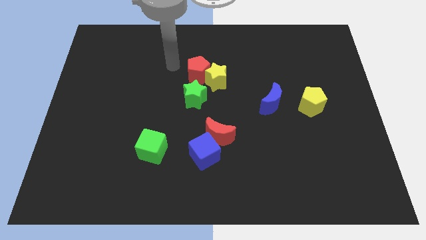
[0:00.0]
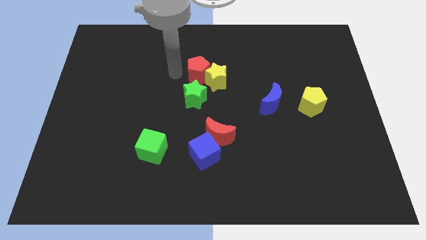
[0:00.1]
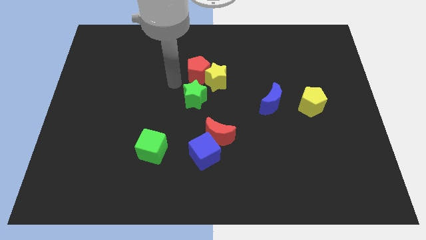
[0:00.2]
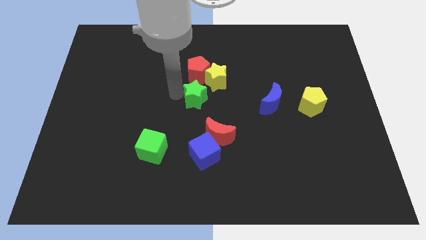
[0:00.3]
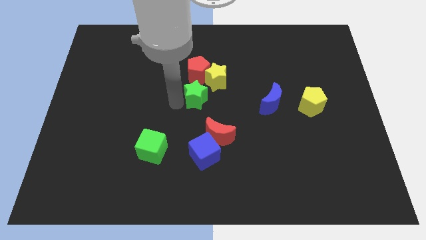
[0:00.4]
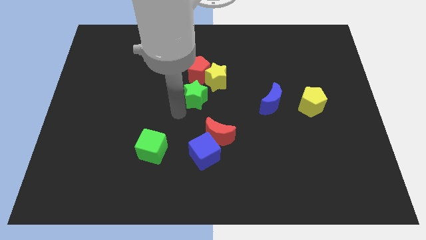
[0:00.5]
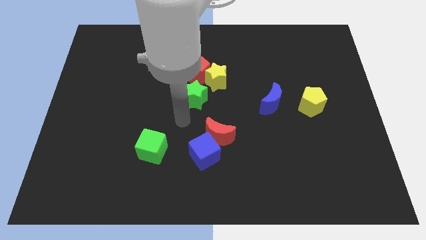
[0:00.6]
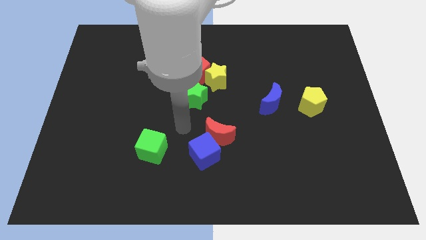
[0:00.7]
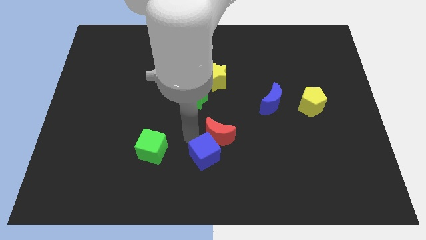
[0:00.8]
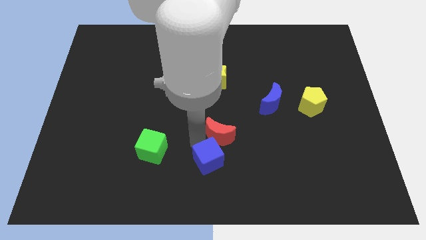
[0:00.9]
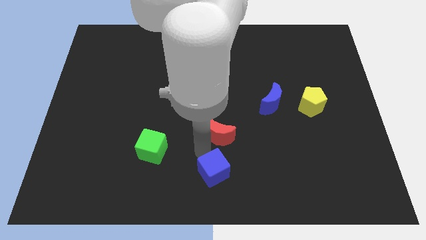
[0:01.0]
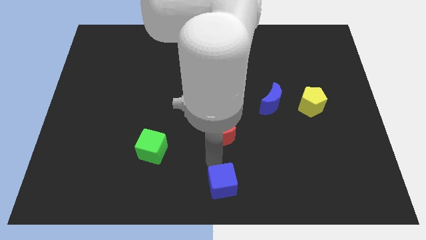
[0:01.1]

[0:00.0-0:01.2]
pull the red moon apart from the blue cube

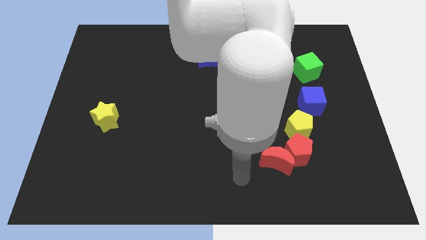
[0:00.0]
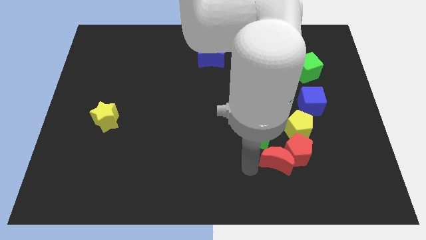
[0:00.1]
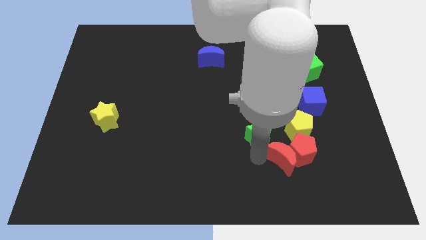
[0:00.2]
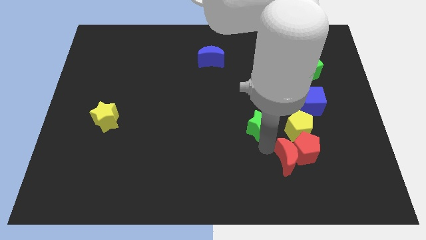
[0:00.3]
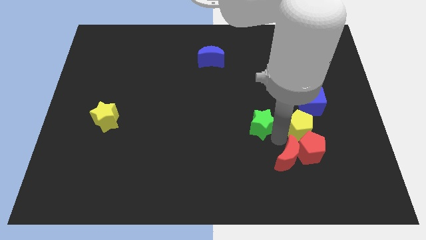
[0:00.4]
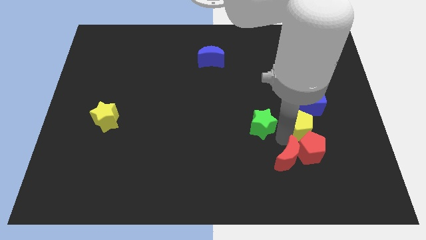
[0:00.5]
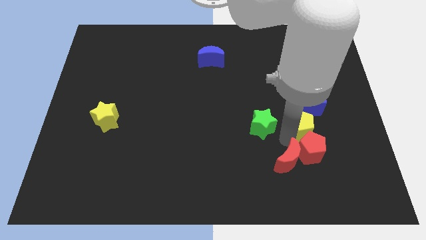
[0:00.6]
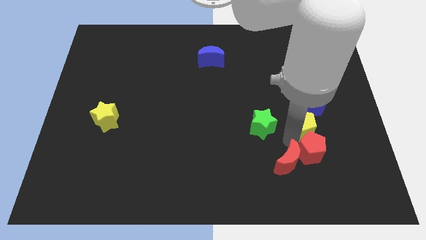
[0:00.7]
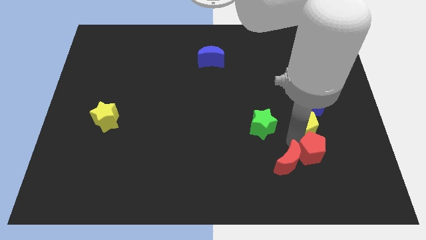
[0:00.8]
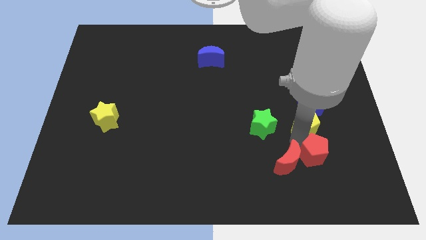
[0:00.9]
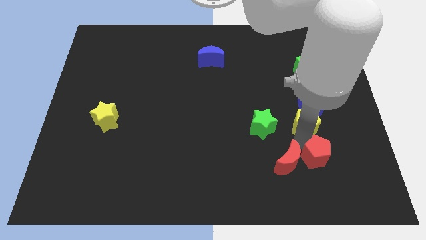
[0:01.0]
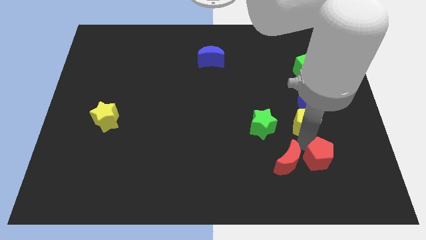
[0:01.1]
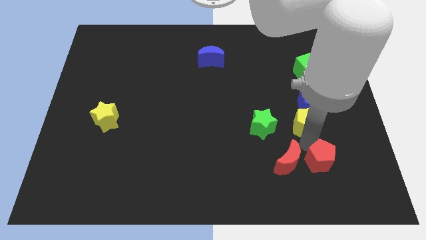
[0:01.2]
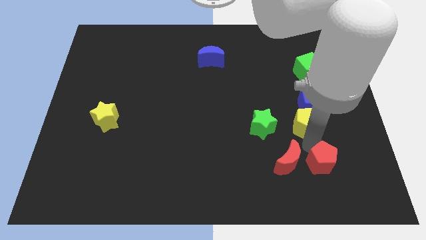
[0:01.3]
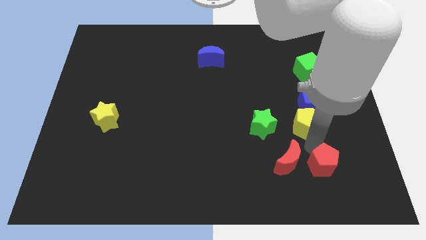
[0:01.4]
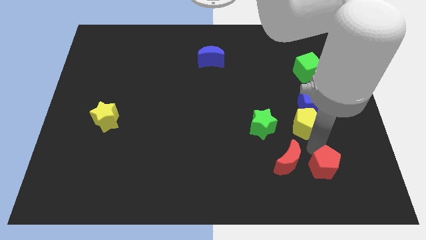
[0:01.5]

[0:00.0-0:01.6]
move the red pentagon away from the red moon, yellow pentagon, and green star

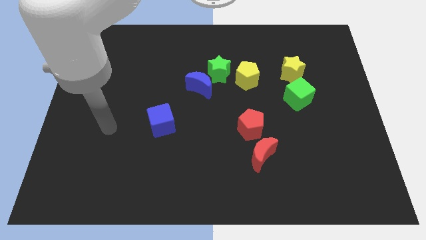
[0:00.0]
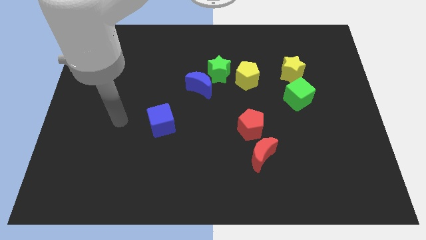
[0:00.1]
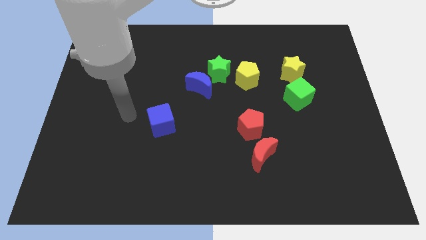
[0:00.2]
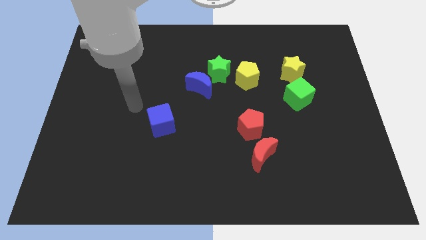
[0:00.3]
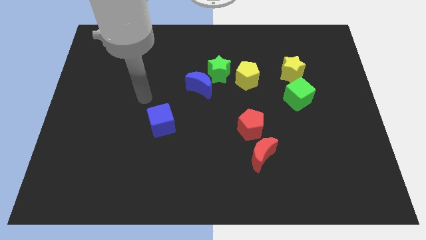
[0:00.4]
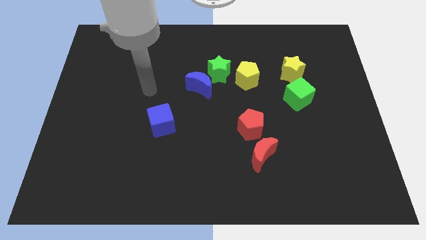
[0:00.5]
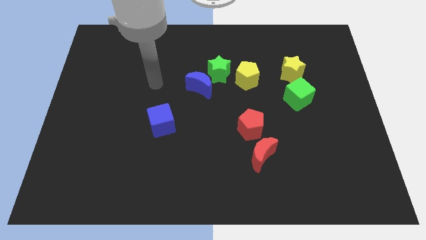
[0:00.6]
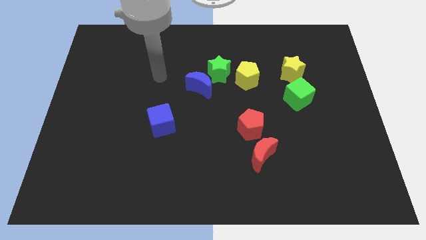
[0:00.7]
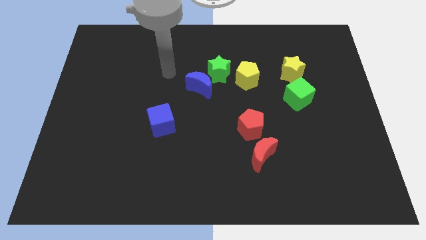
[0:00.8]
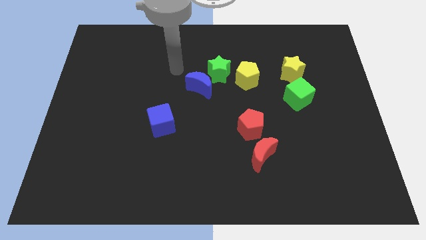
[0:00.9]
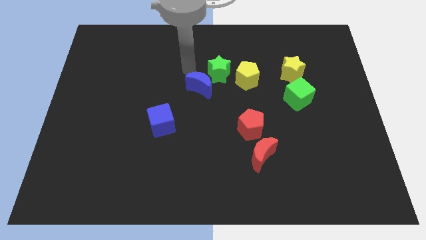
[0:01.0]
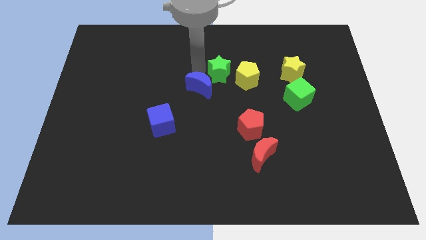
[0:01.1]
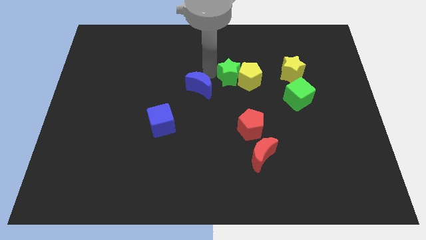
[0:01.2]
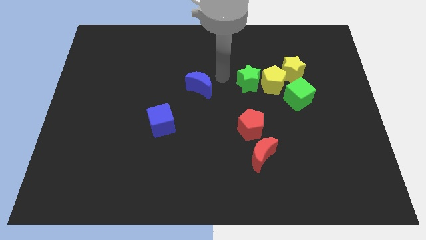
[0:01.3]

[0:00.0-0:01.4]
separate the blue moon from the green star

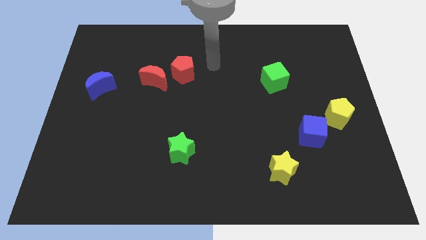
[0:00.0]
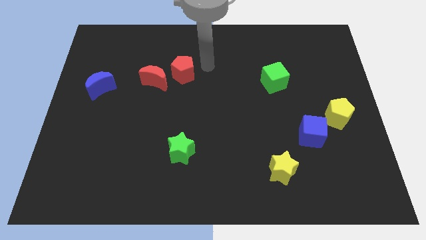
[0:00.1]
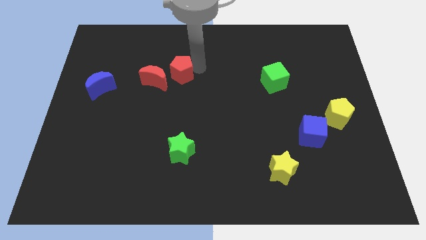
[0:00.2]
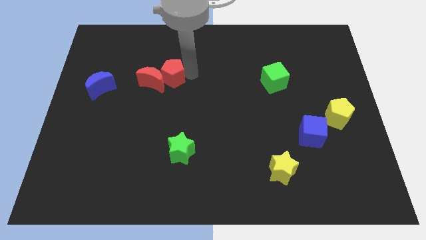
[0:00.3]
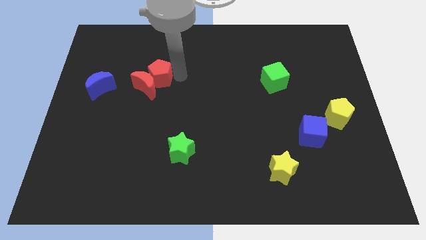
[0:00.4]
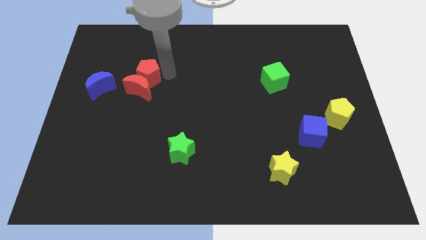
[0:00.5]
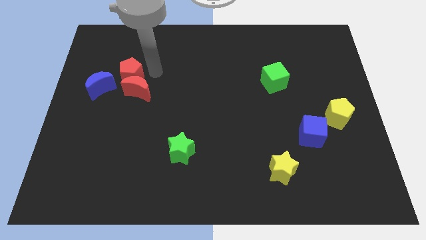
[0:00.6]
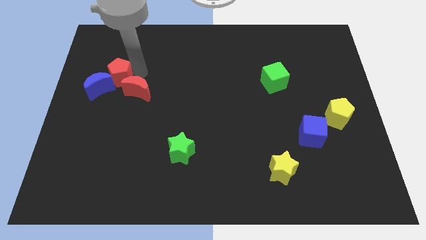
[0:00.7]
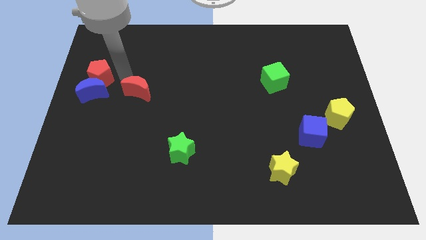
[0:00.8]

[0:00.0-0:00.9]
pull the red moon apart from the red pentagon

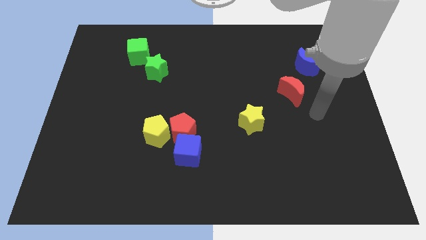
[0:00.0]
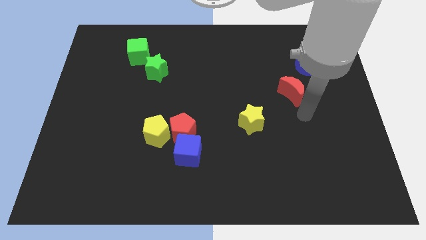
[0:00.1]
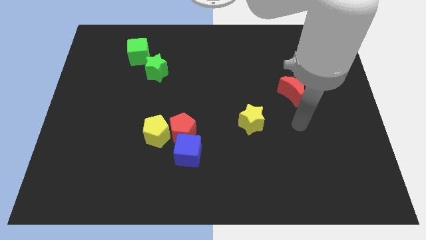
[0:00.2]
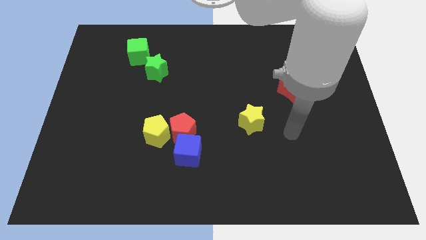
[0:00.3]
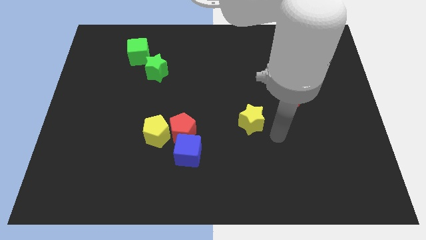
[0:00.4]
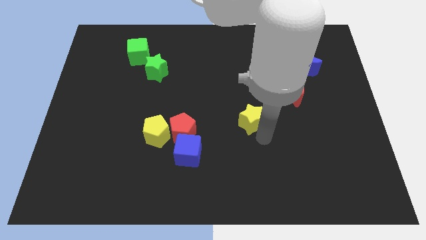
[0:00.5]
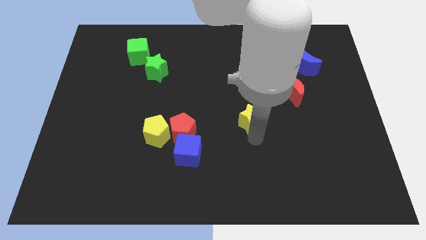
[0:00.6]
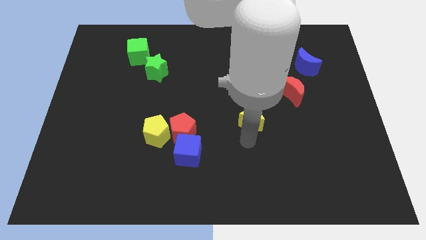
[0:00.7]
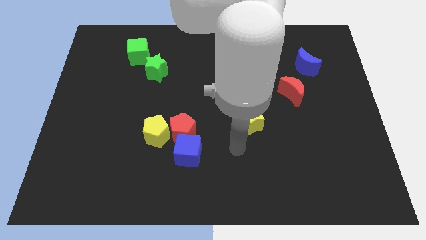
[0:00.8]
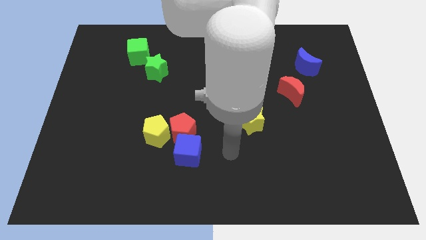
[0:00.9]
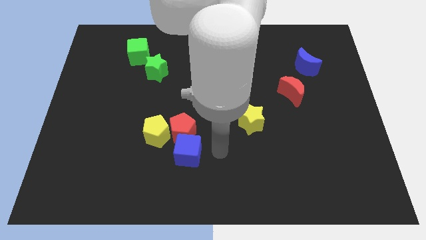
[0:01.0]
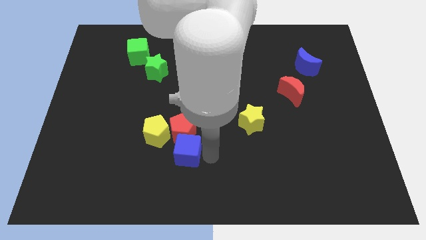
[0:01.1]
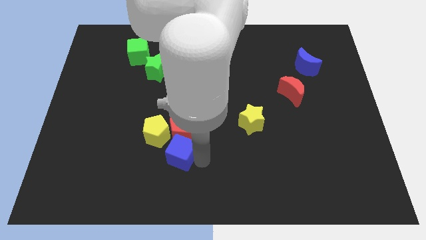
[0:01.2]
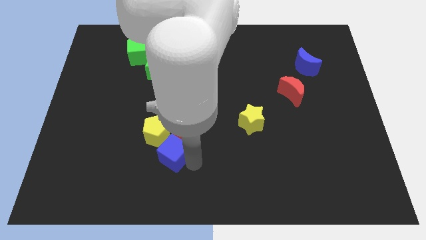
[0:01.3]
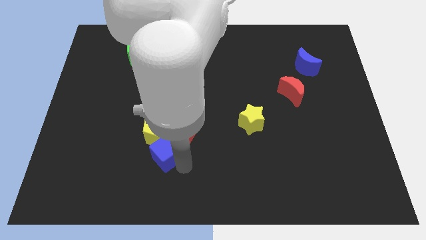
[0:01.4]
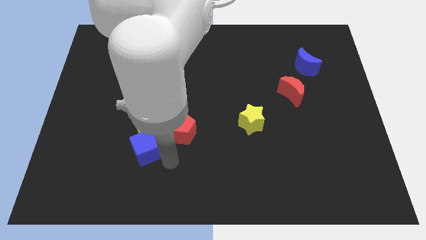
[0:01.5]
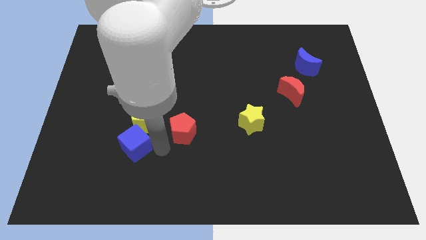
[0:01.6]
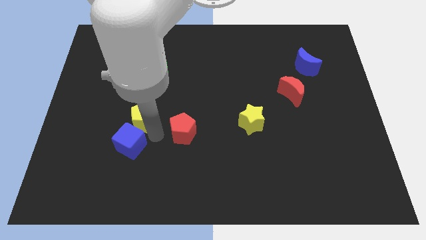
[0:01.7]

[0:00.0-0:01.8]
move the red pentagon away from the blue cube and yellow pentagon

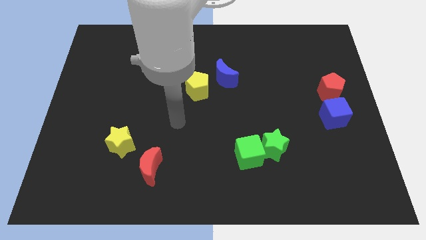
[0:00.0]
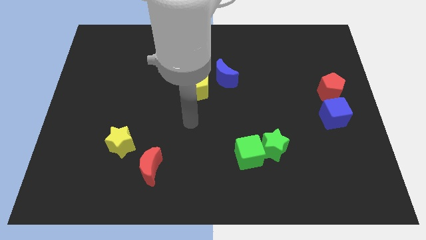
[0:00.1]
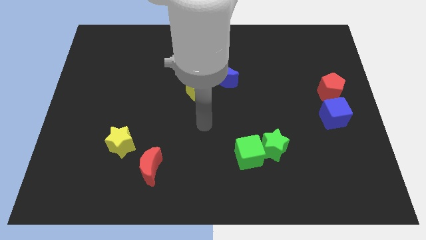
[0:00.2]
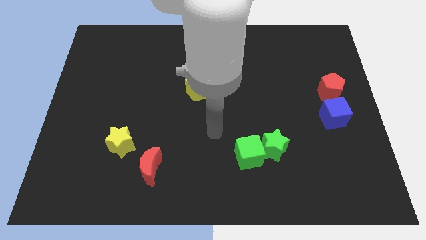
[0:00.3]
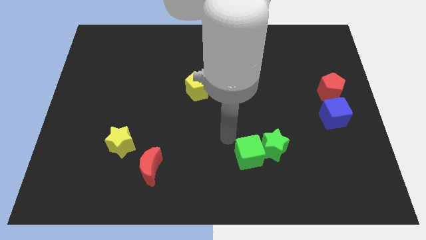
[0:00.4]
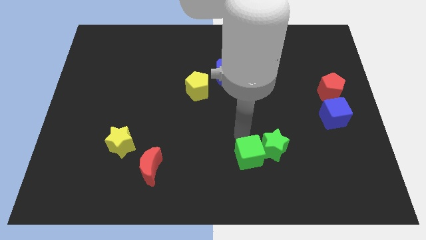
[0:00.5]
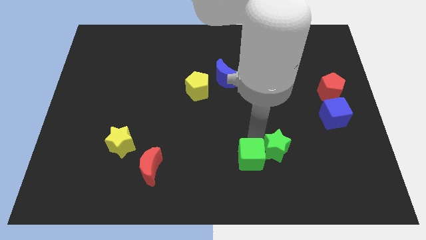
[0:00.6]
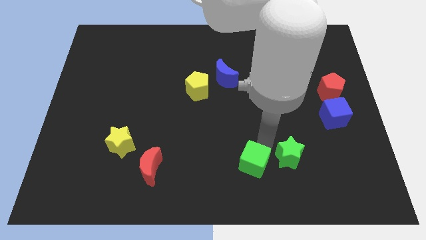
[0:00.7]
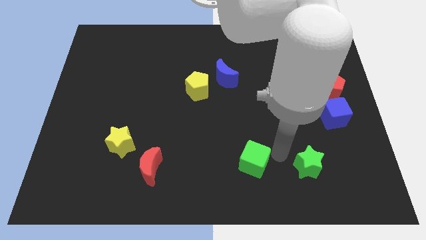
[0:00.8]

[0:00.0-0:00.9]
move the green cube away from the green star

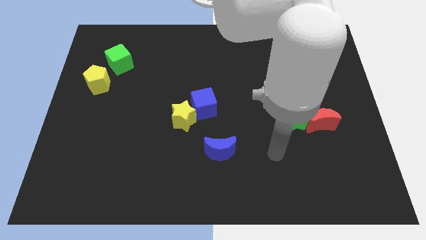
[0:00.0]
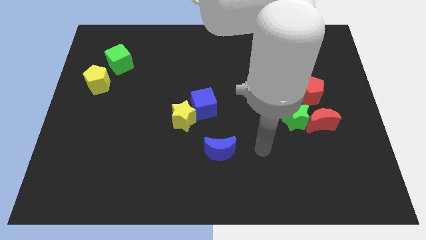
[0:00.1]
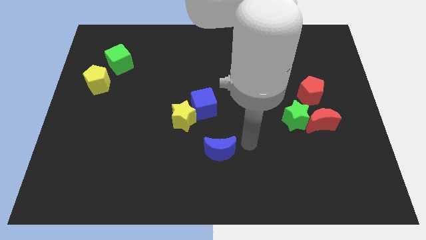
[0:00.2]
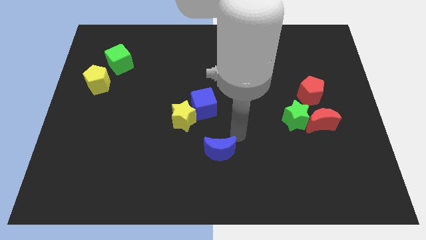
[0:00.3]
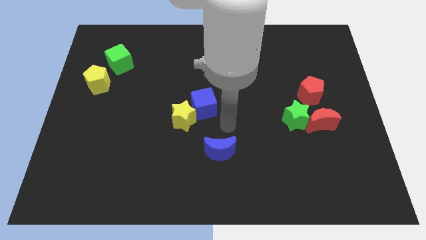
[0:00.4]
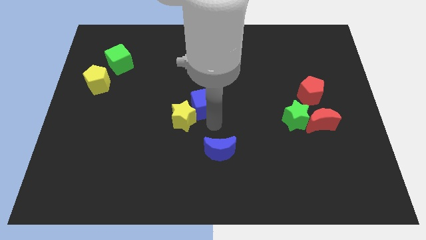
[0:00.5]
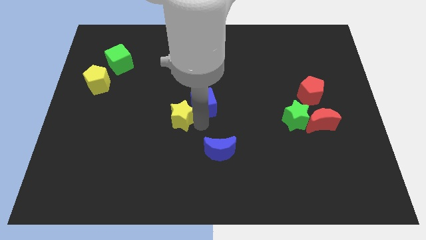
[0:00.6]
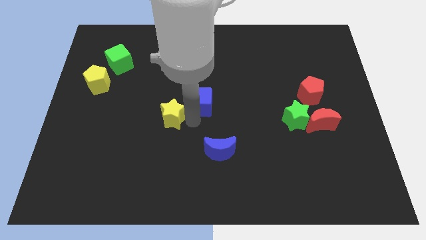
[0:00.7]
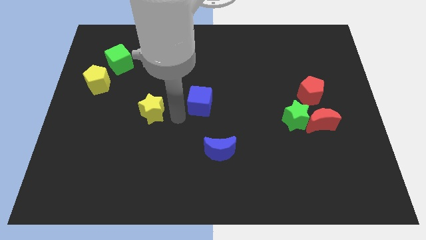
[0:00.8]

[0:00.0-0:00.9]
separate the blue cube from the yellow star

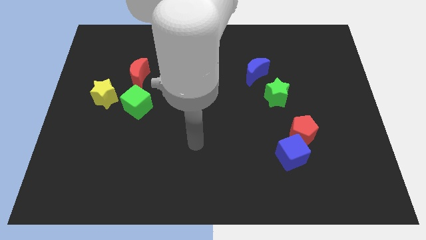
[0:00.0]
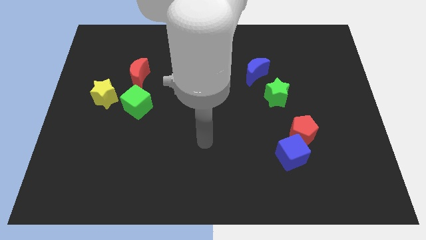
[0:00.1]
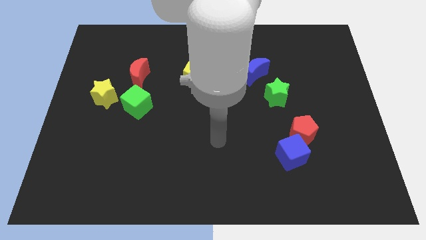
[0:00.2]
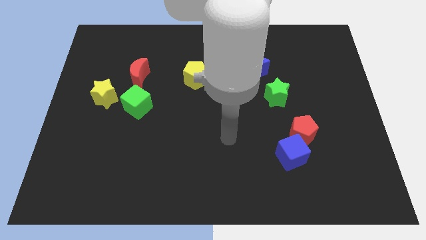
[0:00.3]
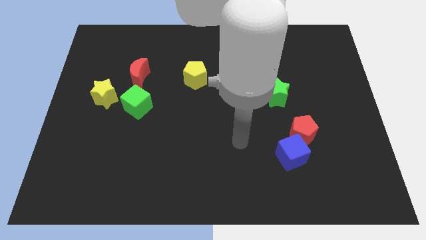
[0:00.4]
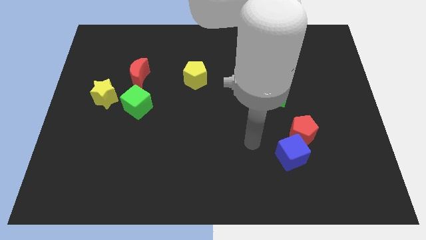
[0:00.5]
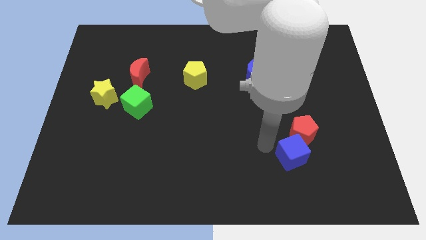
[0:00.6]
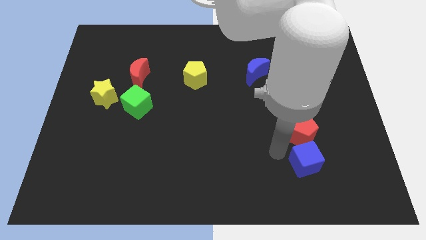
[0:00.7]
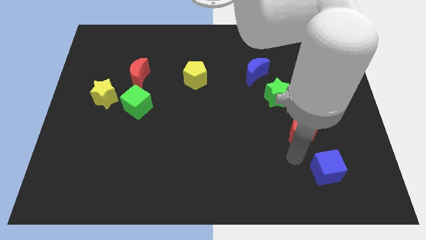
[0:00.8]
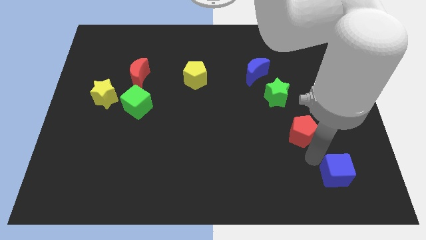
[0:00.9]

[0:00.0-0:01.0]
pull the red pentagon apart from the blue cube
